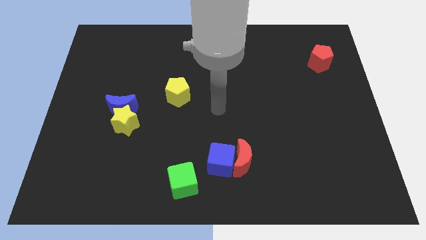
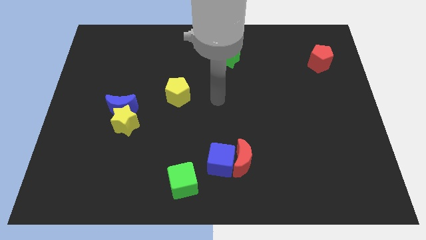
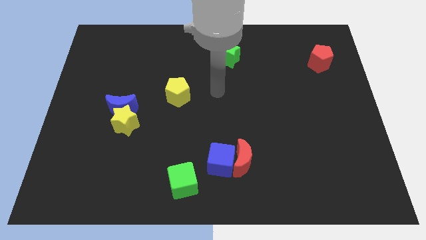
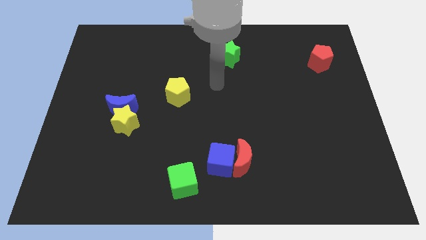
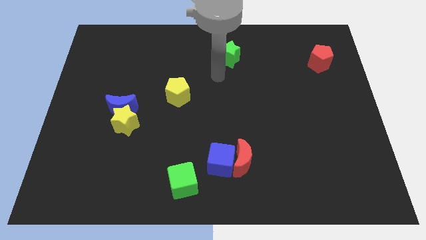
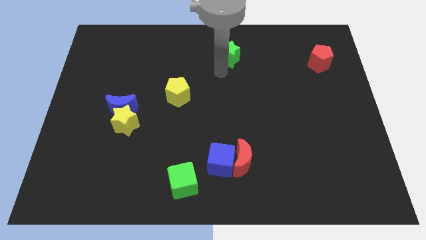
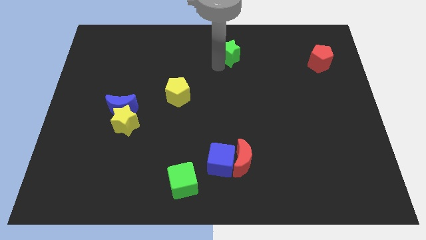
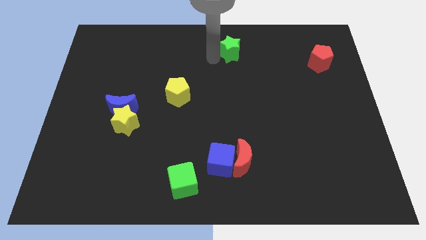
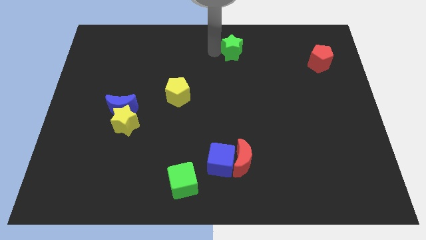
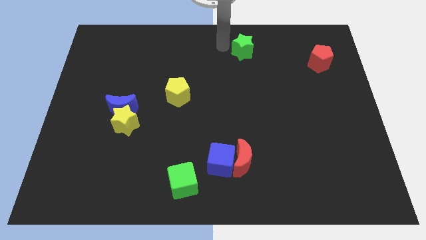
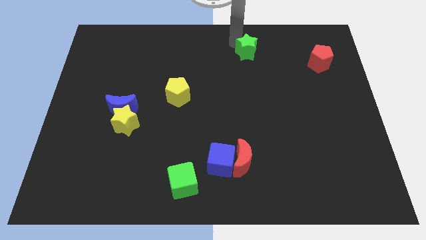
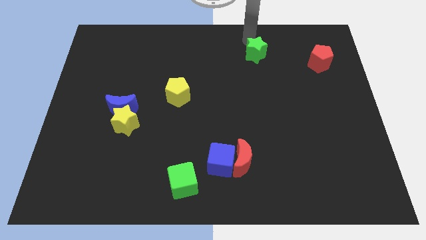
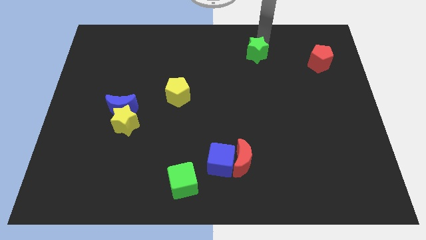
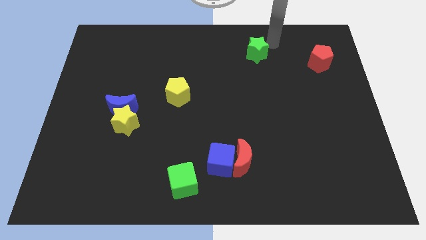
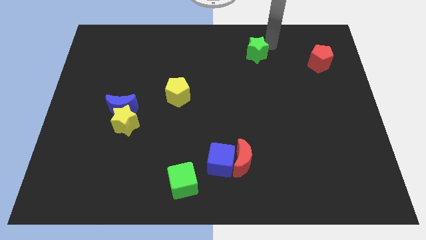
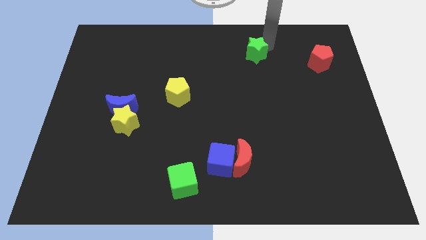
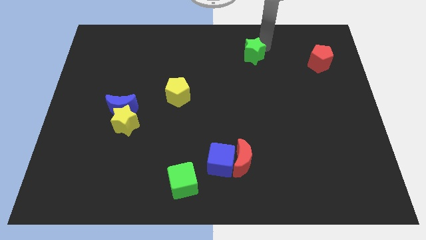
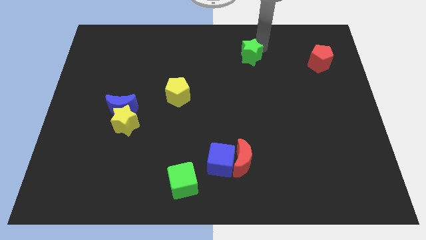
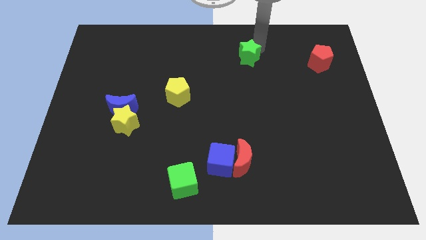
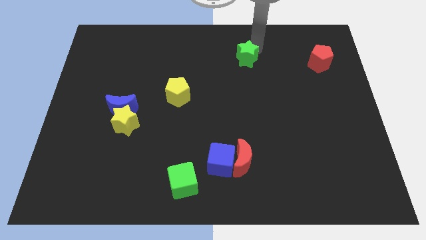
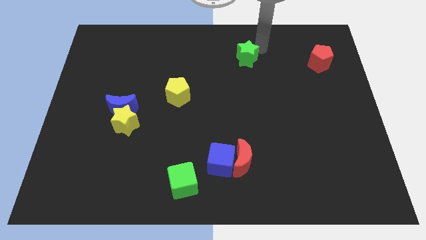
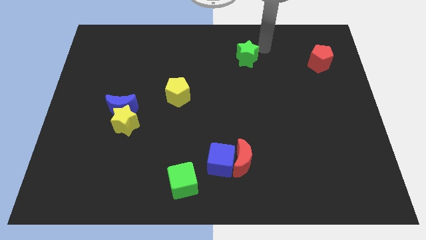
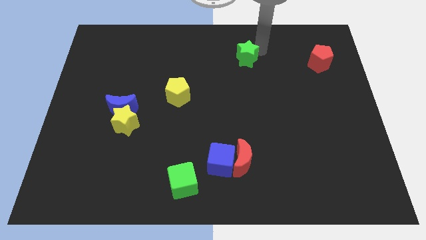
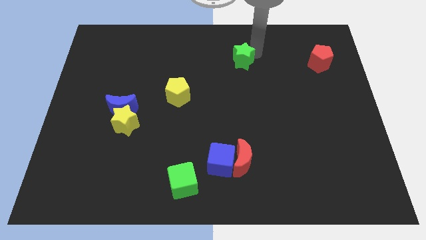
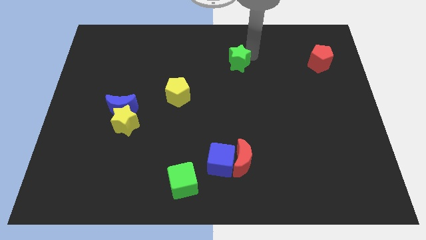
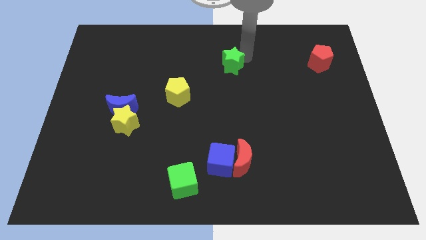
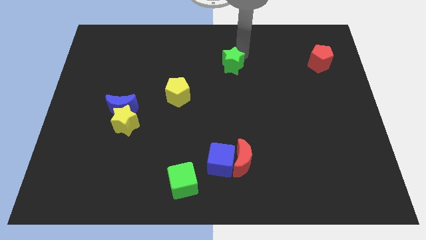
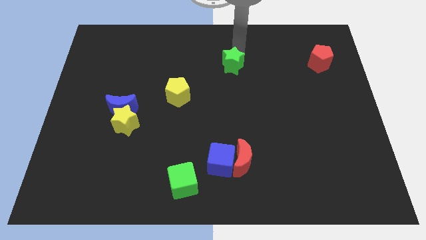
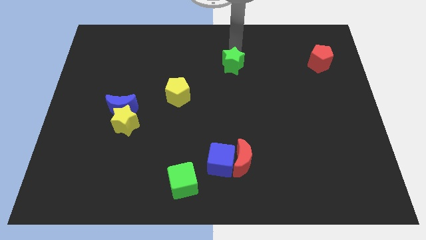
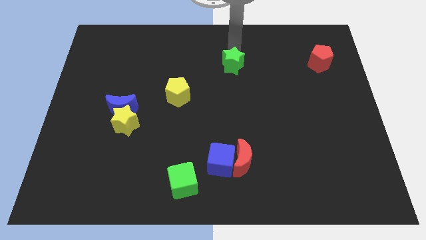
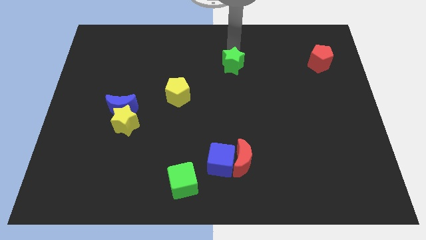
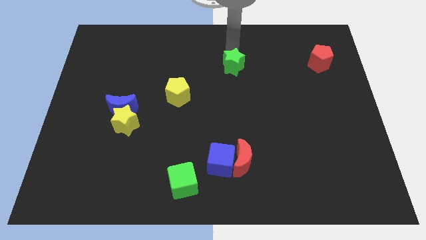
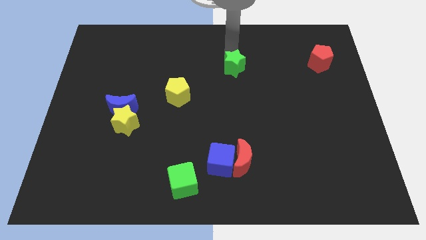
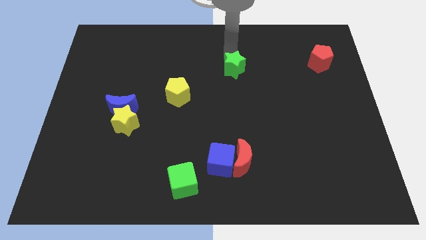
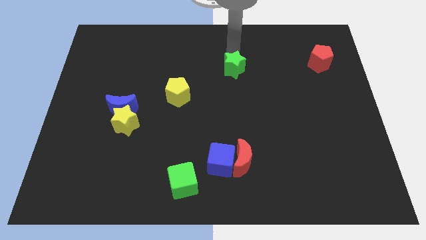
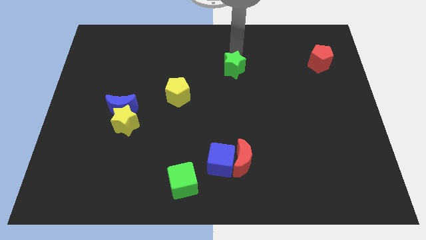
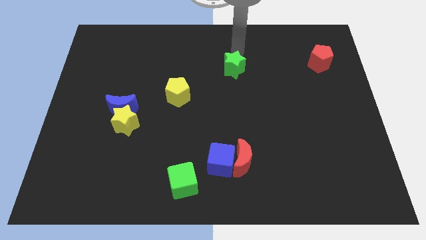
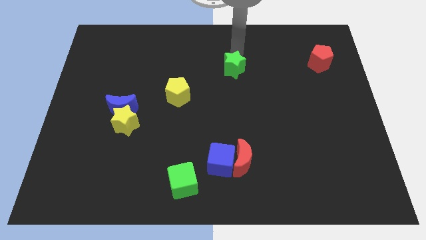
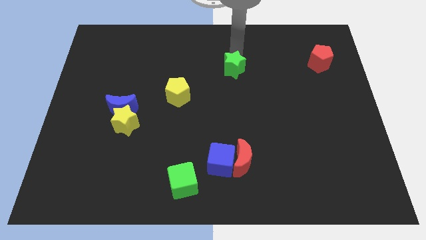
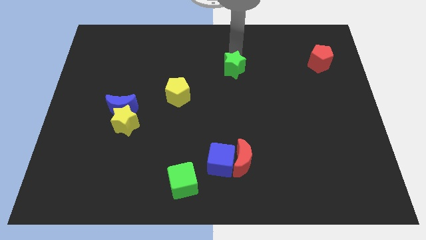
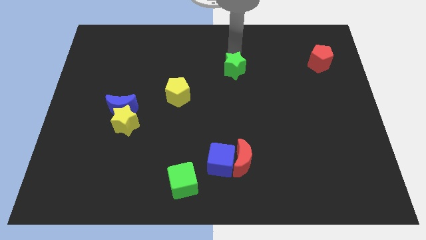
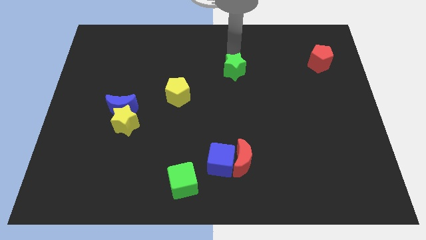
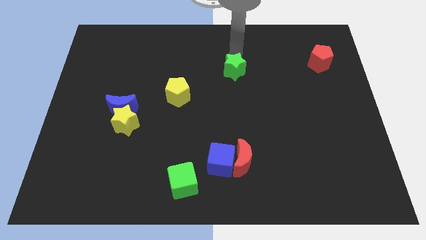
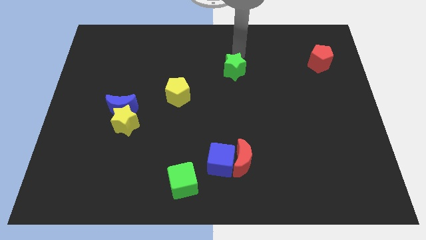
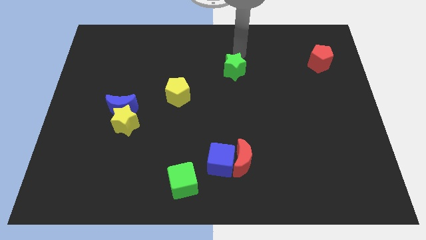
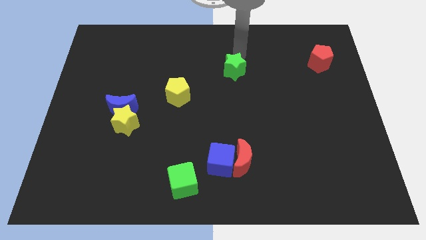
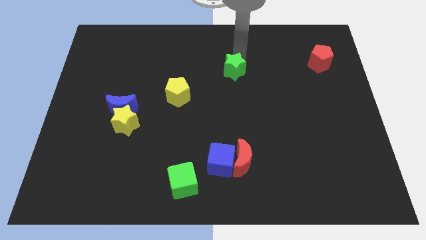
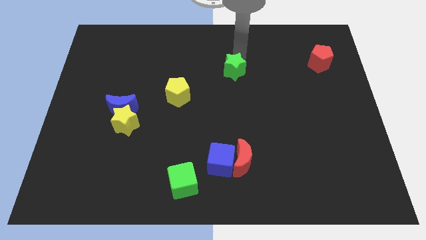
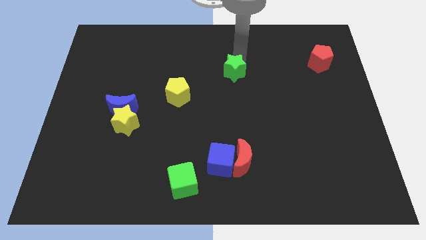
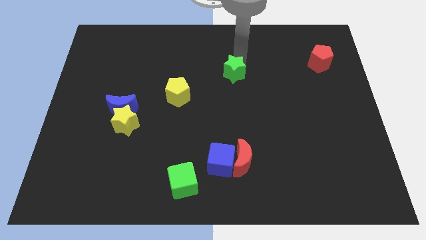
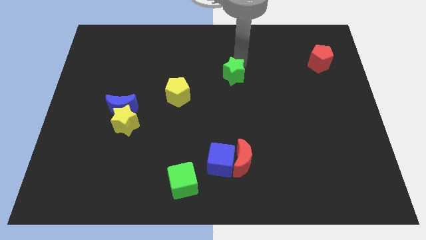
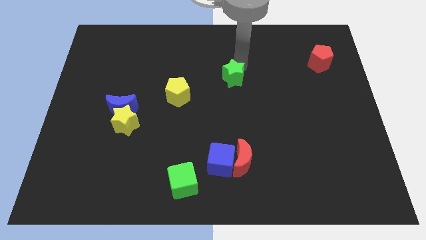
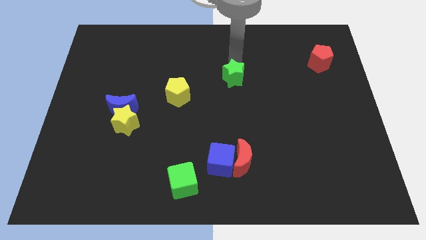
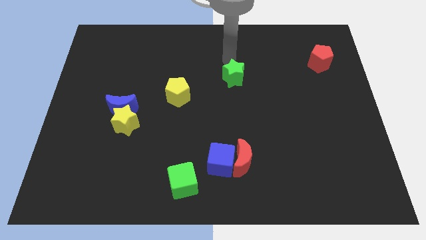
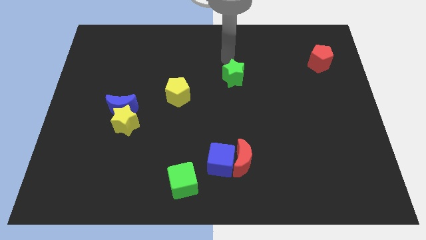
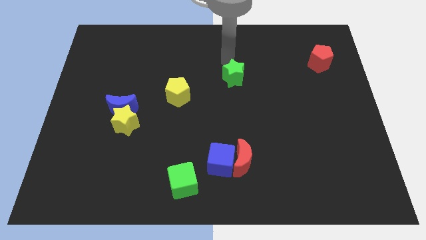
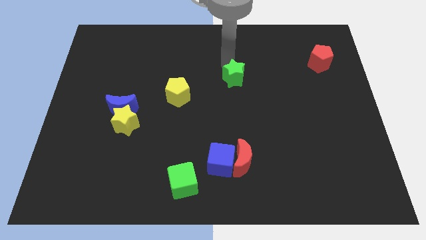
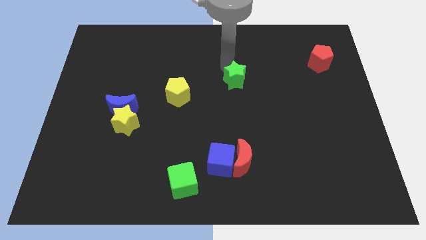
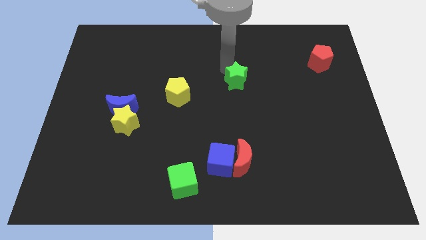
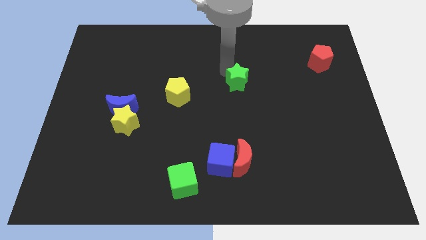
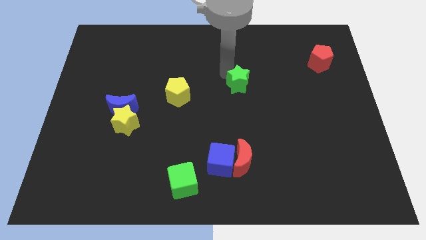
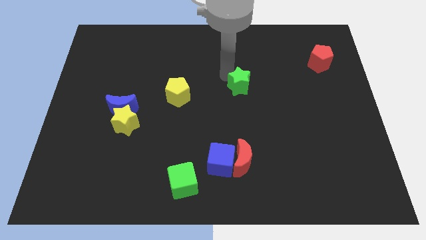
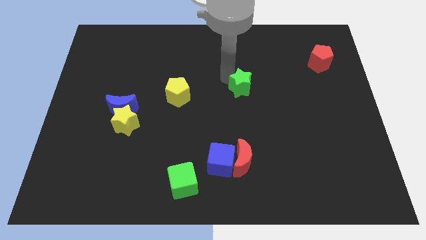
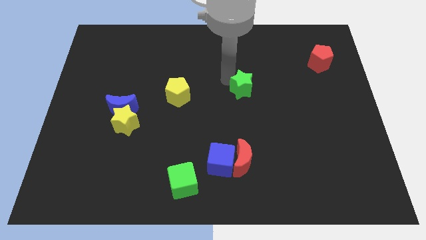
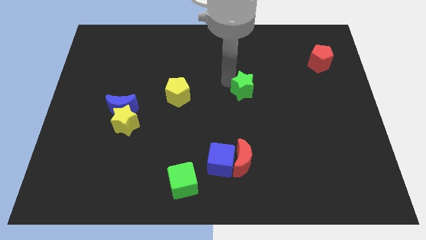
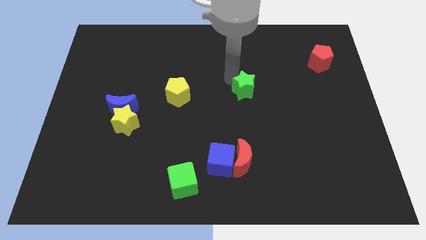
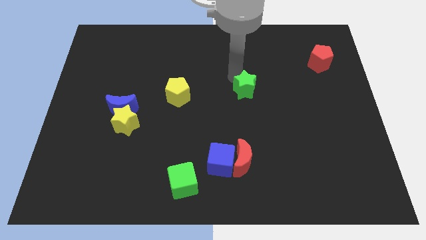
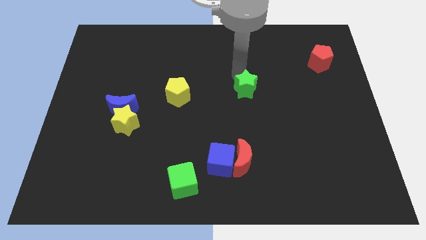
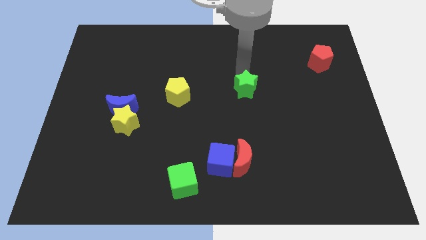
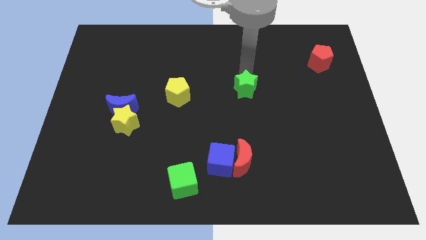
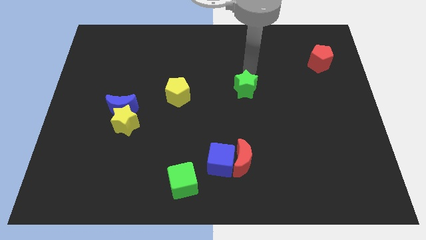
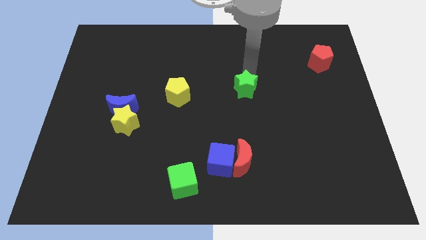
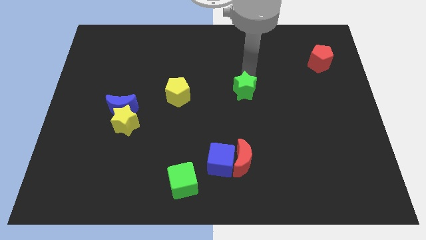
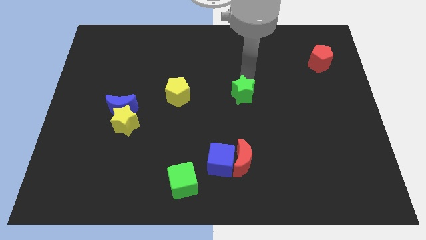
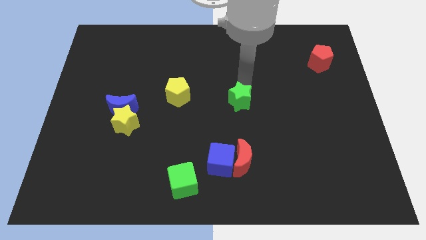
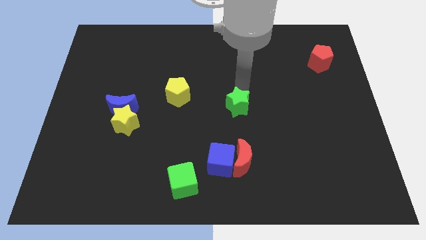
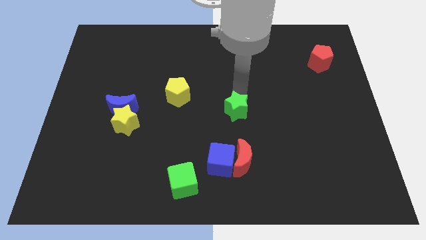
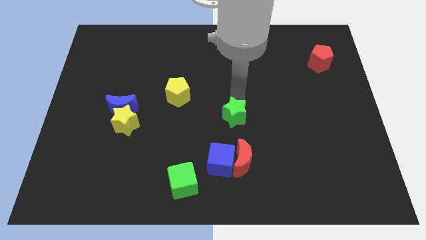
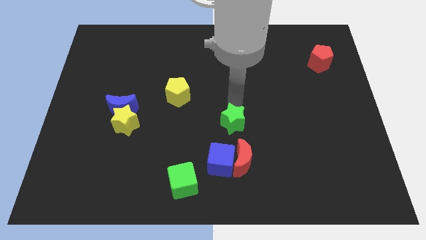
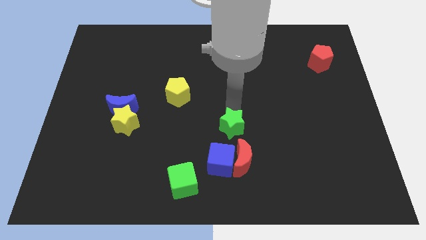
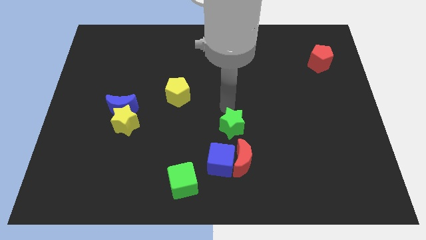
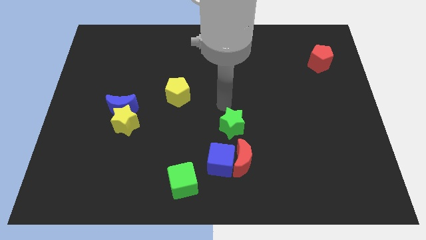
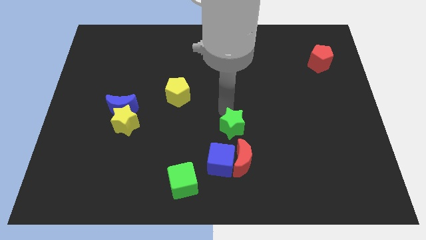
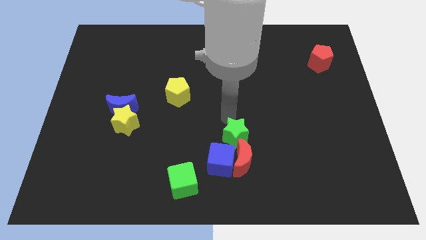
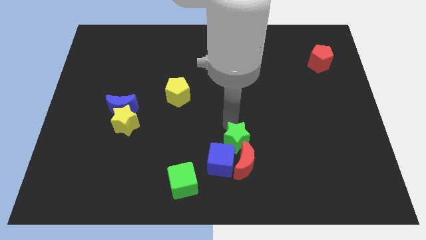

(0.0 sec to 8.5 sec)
slide the green star close to the red moon
